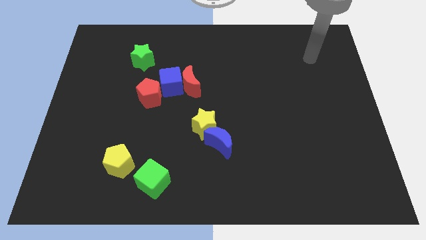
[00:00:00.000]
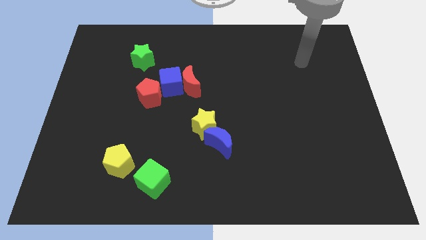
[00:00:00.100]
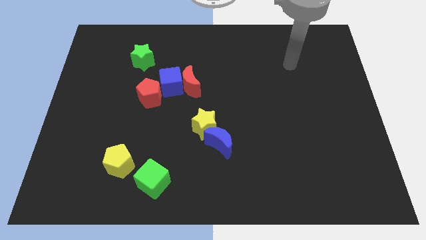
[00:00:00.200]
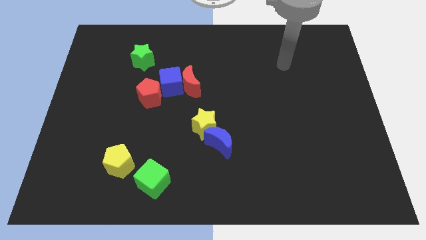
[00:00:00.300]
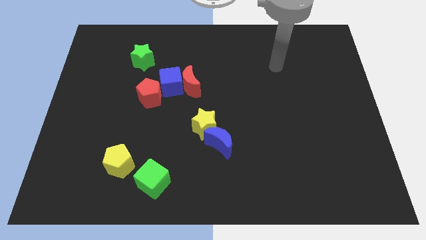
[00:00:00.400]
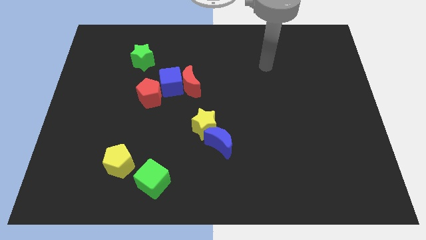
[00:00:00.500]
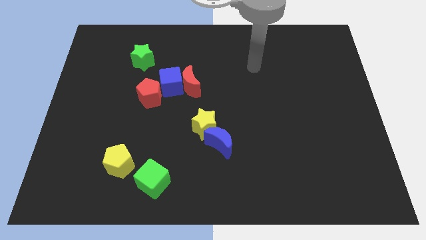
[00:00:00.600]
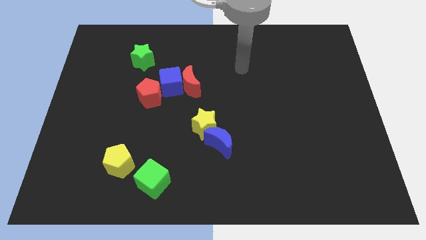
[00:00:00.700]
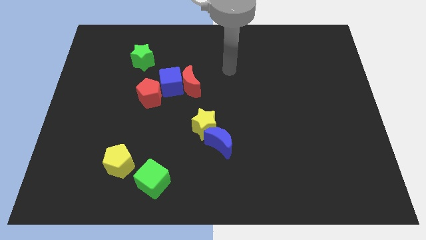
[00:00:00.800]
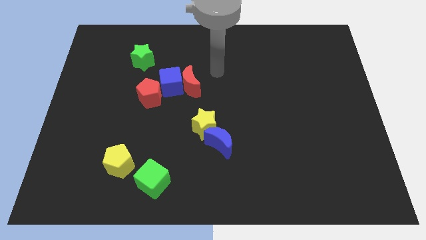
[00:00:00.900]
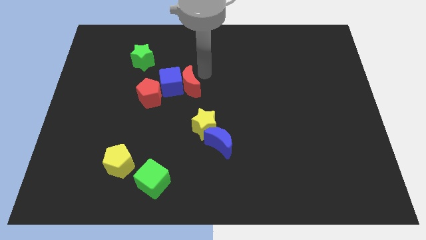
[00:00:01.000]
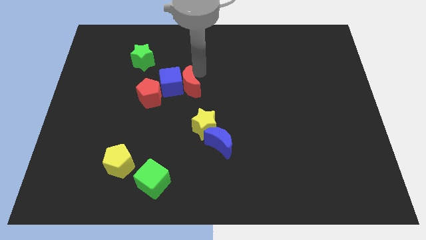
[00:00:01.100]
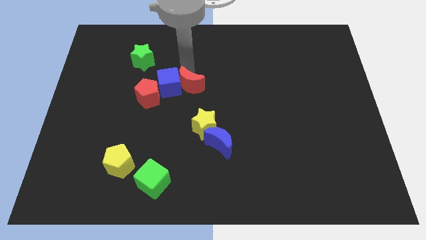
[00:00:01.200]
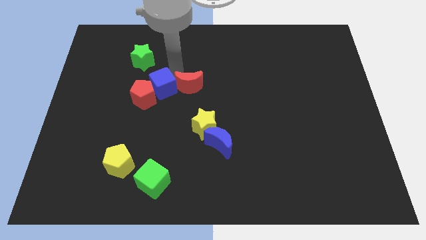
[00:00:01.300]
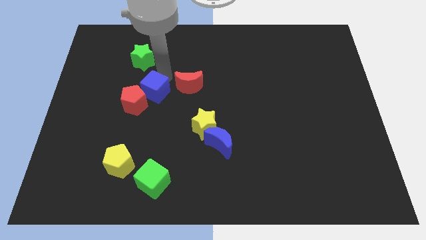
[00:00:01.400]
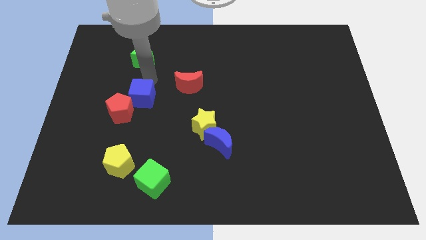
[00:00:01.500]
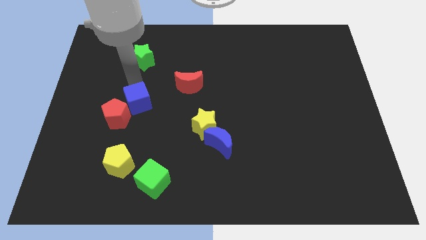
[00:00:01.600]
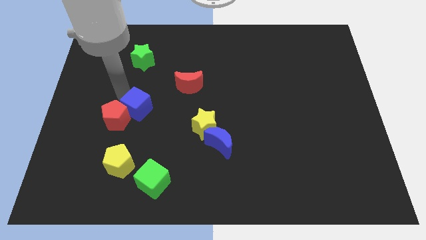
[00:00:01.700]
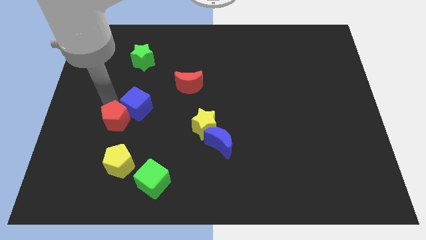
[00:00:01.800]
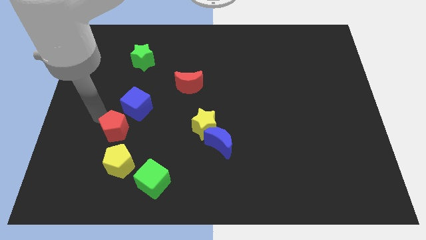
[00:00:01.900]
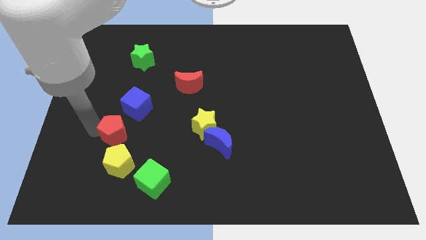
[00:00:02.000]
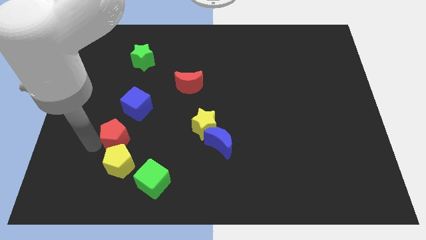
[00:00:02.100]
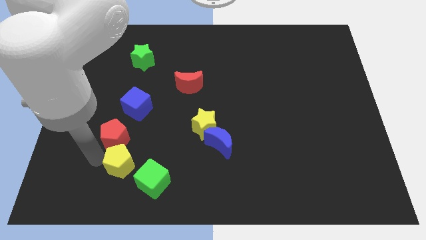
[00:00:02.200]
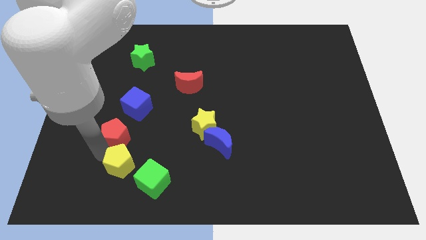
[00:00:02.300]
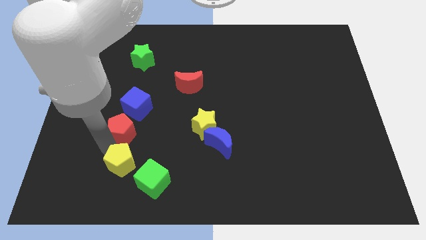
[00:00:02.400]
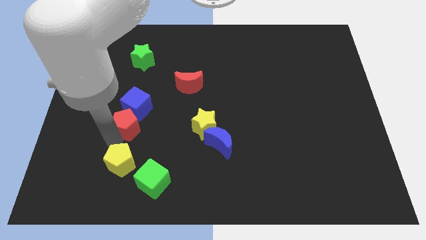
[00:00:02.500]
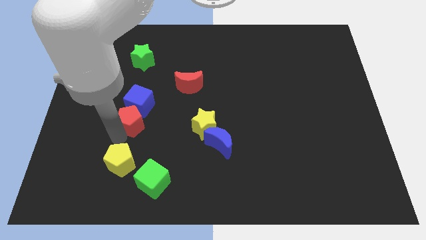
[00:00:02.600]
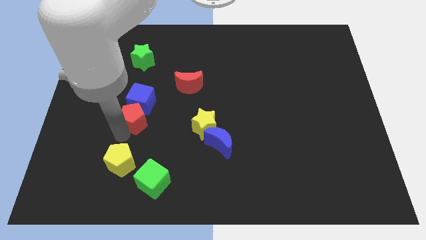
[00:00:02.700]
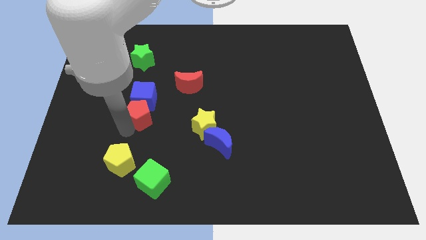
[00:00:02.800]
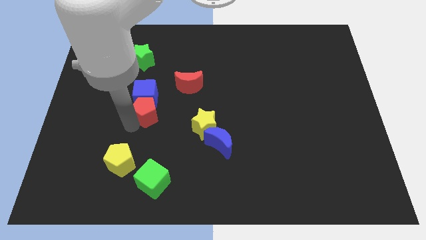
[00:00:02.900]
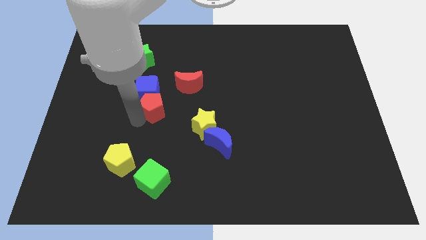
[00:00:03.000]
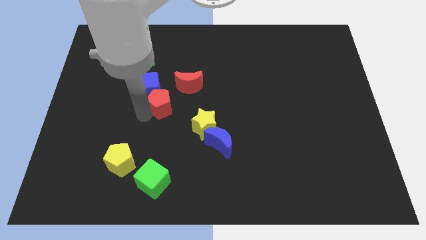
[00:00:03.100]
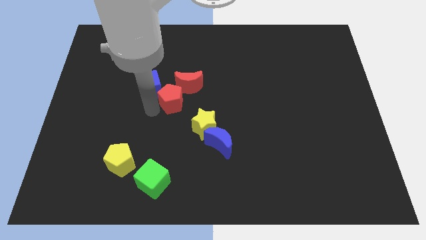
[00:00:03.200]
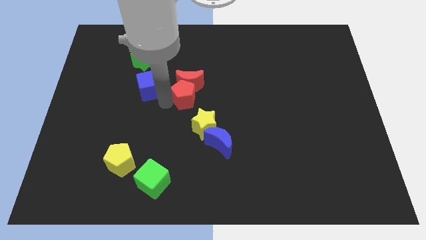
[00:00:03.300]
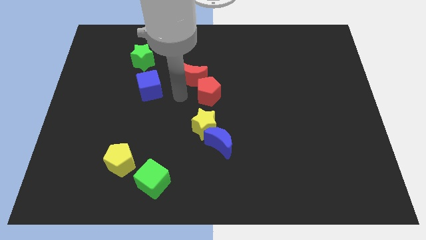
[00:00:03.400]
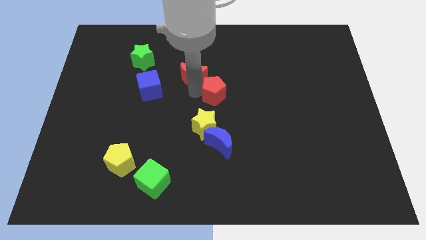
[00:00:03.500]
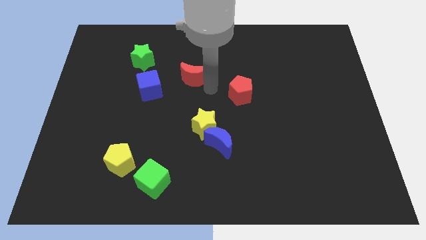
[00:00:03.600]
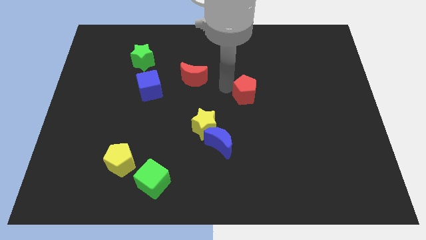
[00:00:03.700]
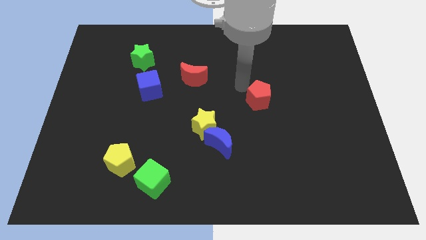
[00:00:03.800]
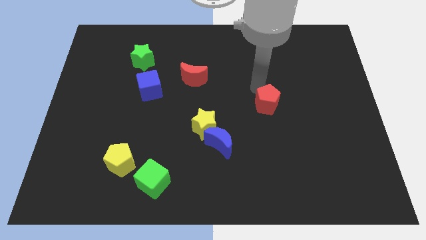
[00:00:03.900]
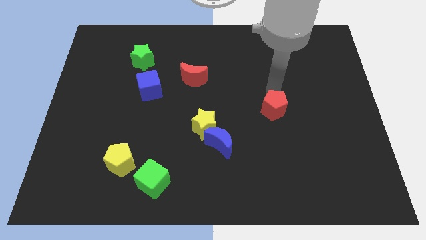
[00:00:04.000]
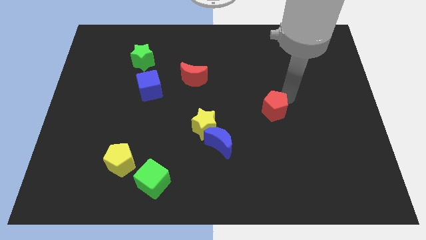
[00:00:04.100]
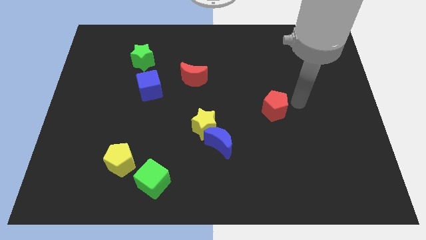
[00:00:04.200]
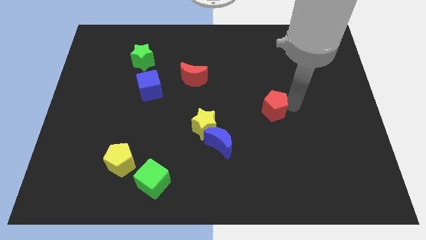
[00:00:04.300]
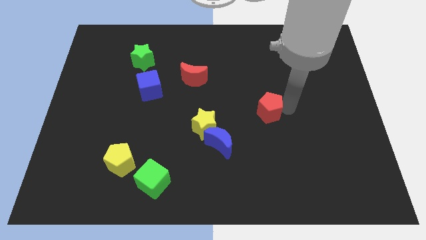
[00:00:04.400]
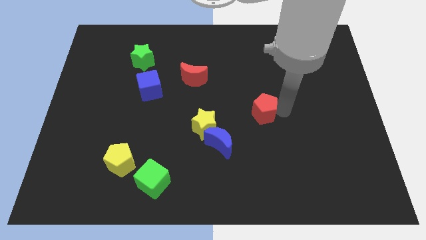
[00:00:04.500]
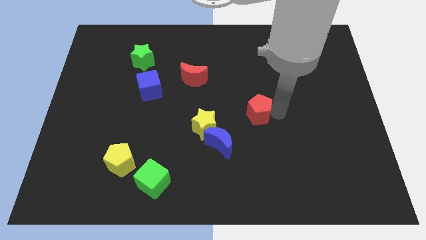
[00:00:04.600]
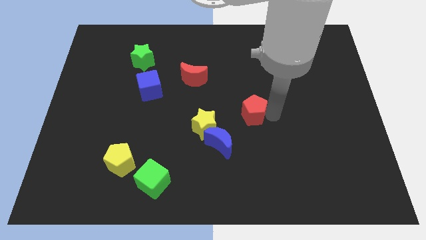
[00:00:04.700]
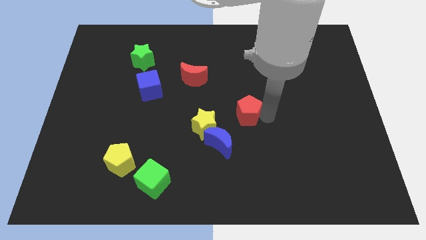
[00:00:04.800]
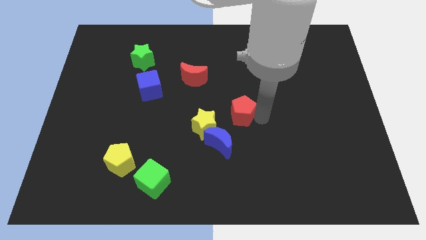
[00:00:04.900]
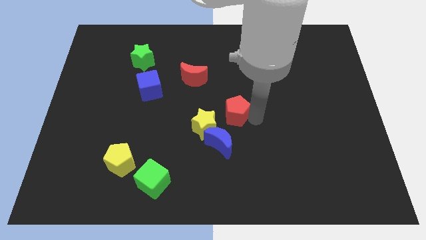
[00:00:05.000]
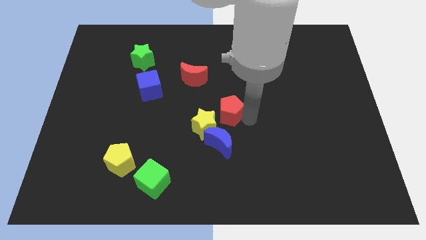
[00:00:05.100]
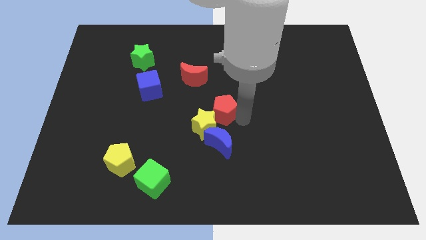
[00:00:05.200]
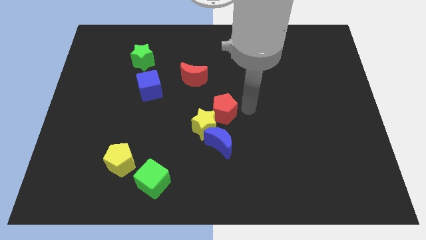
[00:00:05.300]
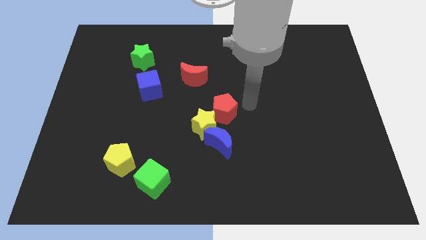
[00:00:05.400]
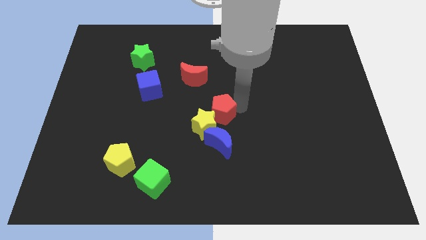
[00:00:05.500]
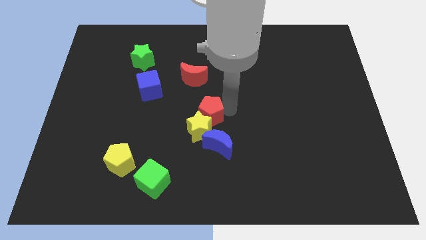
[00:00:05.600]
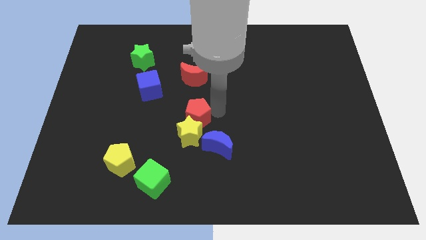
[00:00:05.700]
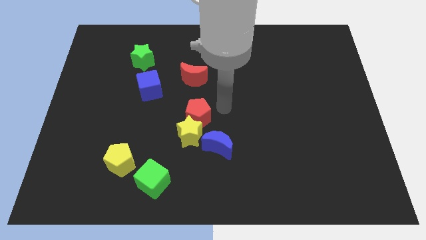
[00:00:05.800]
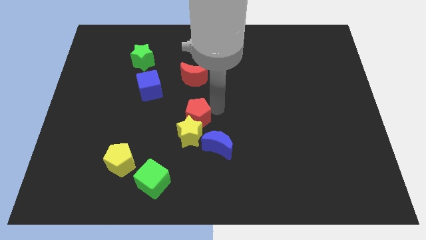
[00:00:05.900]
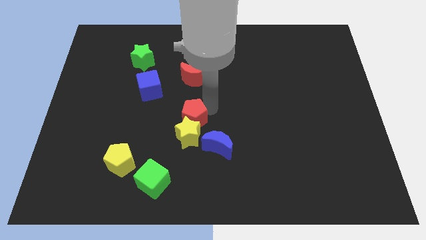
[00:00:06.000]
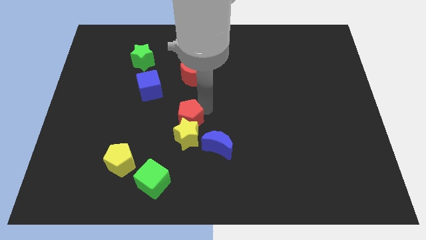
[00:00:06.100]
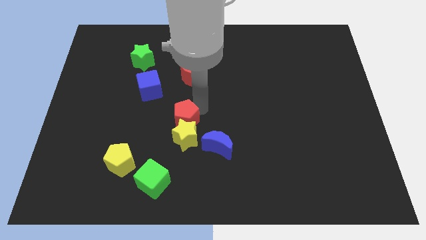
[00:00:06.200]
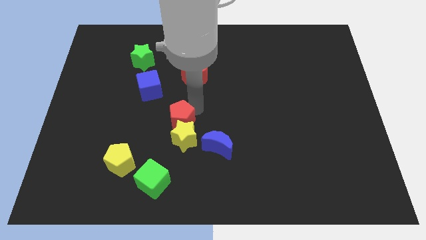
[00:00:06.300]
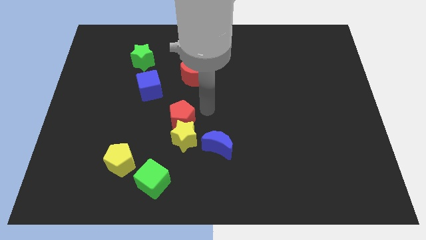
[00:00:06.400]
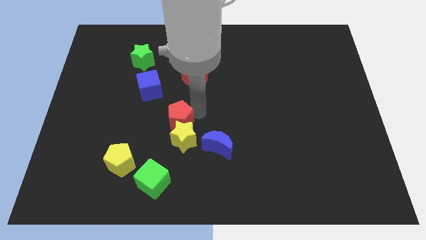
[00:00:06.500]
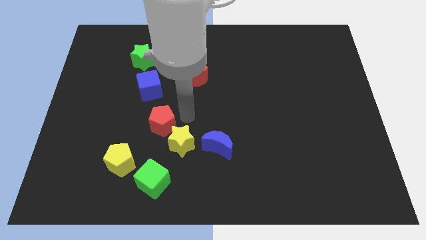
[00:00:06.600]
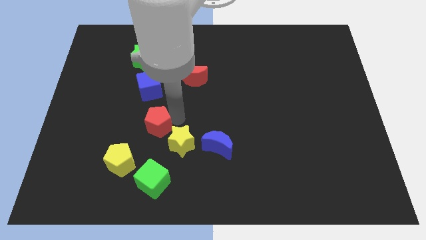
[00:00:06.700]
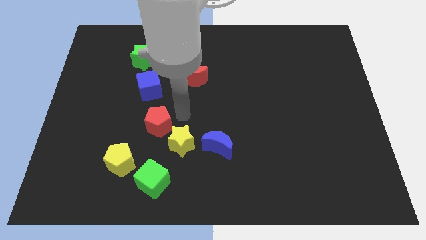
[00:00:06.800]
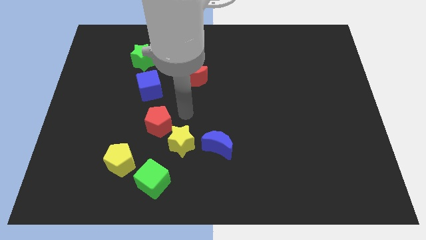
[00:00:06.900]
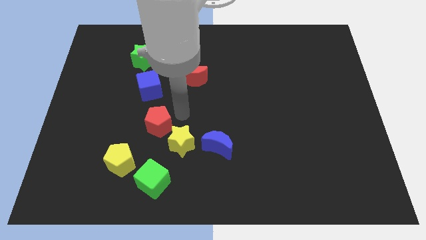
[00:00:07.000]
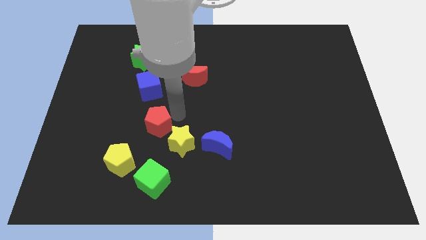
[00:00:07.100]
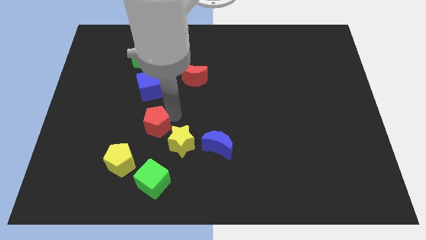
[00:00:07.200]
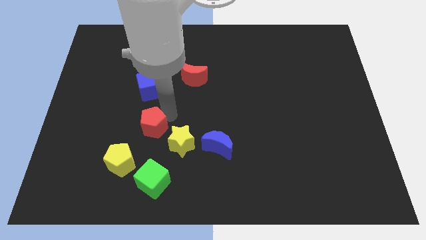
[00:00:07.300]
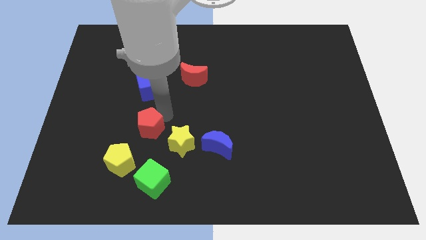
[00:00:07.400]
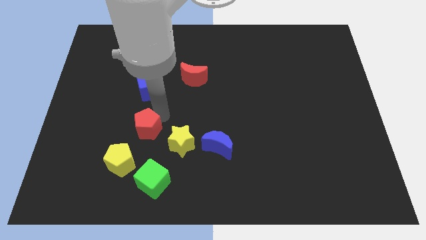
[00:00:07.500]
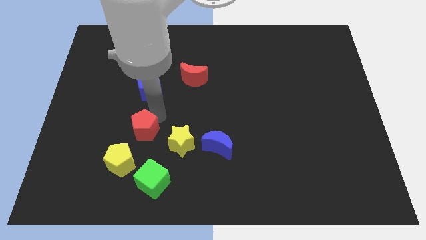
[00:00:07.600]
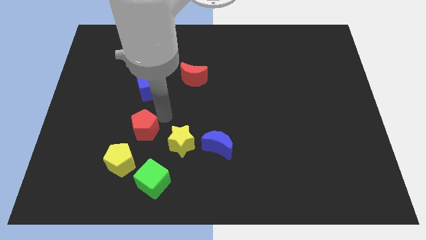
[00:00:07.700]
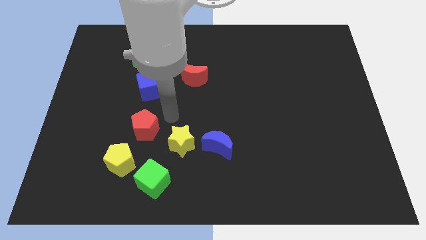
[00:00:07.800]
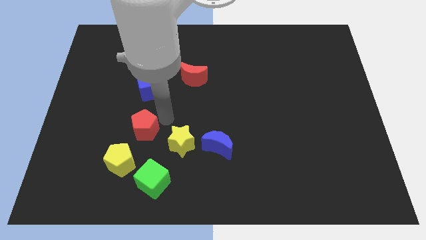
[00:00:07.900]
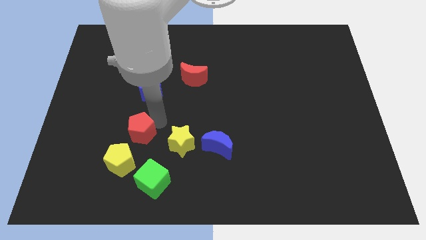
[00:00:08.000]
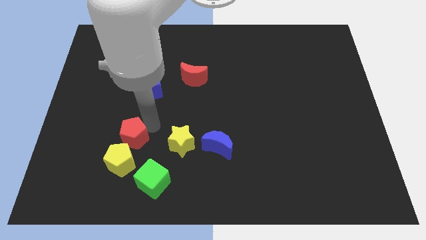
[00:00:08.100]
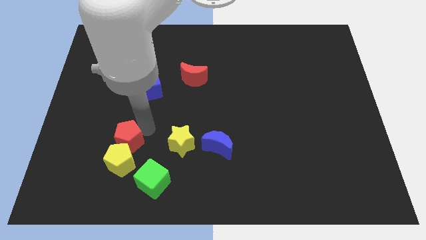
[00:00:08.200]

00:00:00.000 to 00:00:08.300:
slide the red pentagon to the yellow pentagon

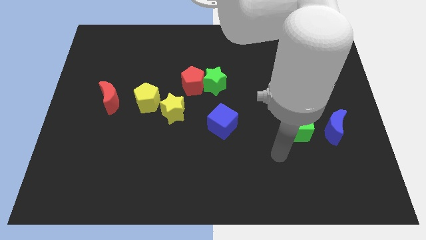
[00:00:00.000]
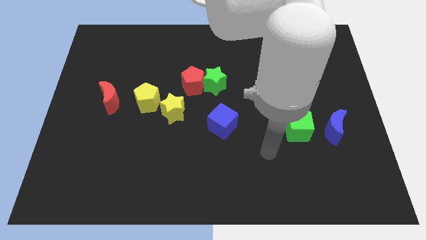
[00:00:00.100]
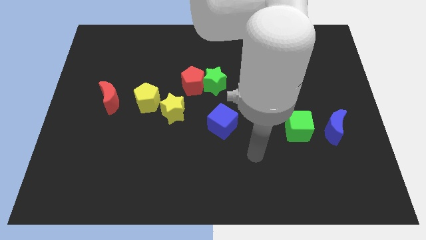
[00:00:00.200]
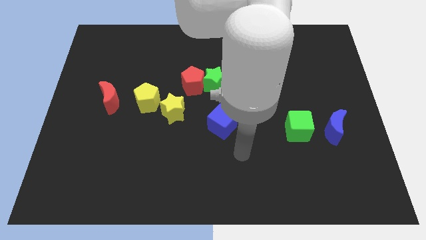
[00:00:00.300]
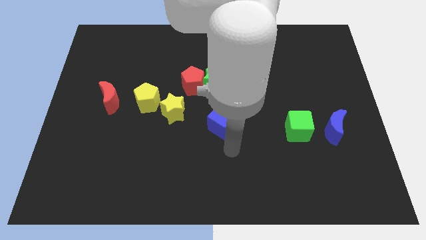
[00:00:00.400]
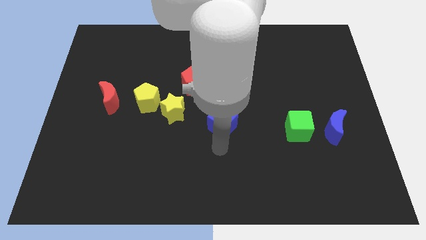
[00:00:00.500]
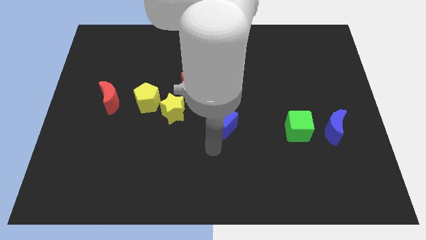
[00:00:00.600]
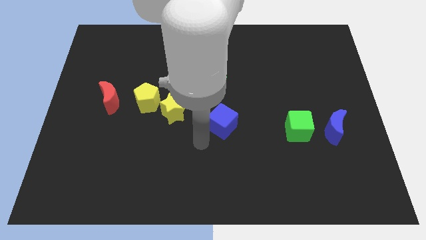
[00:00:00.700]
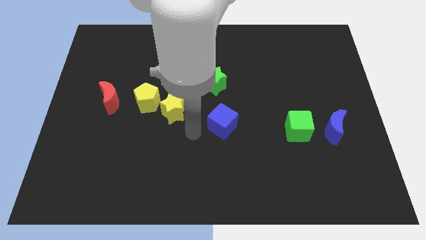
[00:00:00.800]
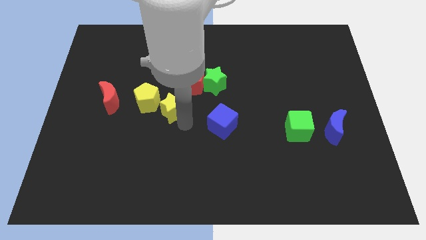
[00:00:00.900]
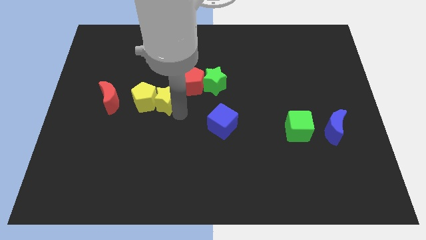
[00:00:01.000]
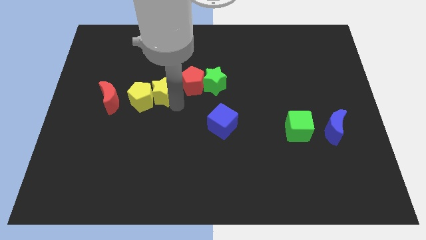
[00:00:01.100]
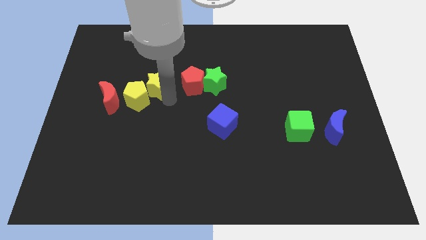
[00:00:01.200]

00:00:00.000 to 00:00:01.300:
slide the yellow pentagon close to the red moon
